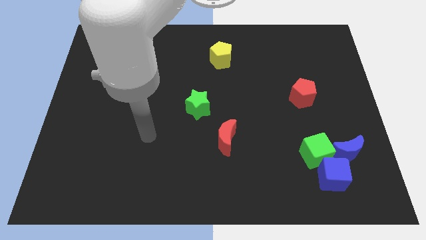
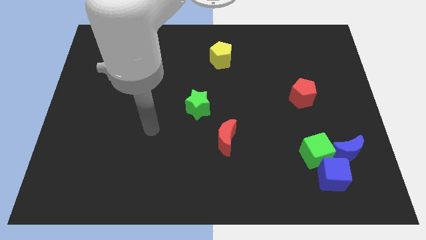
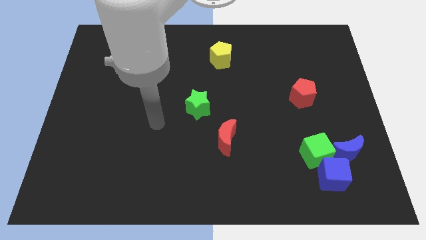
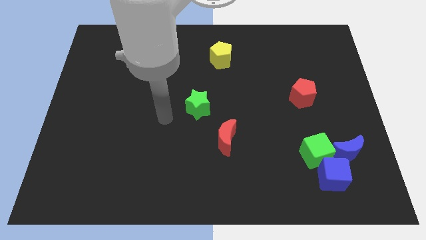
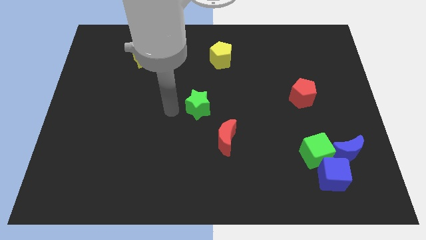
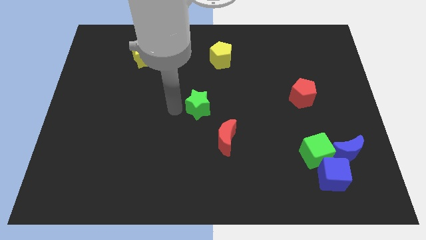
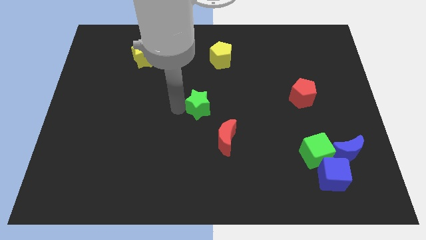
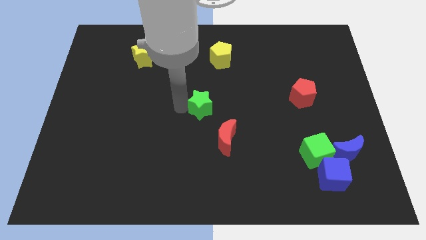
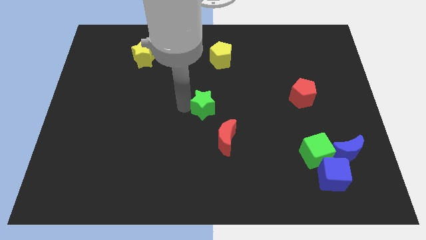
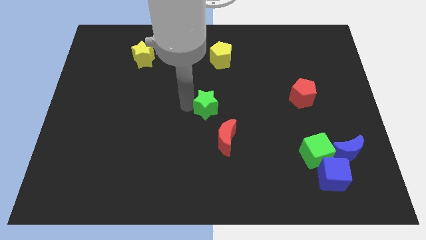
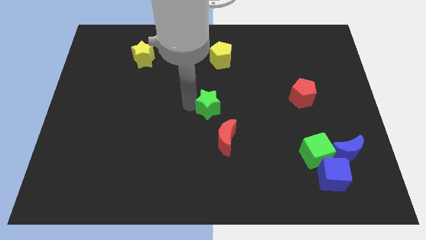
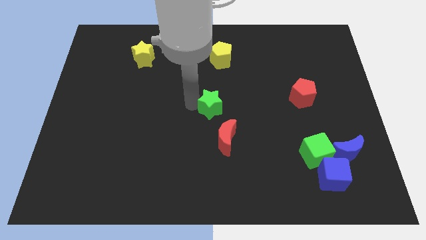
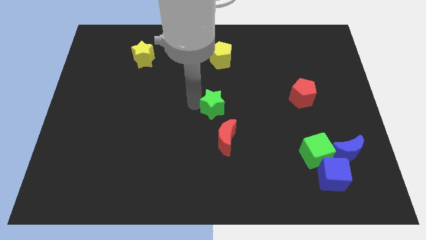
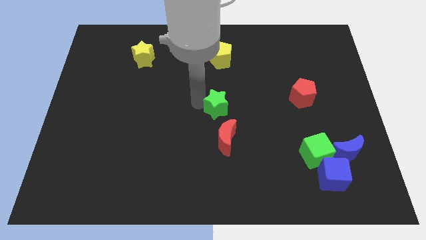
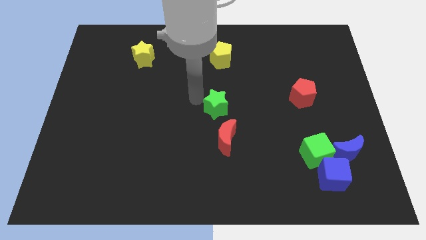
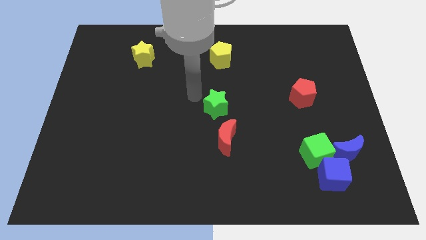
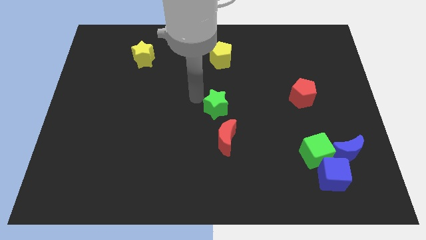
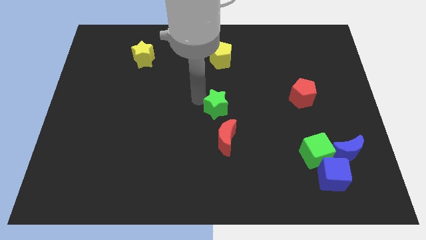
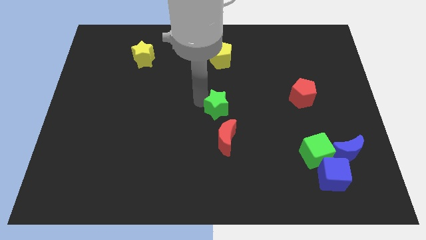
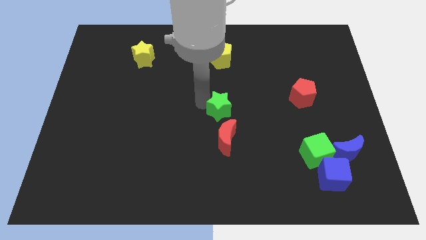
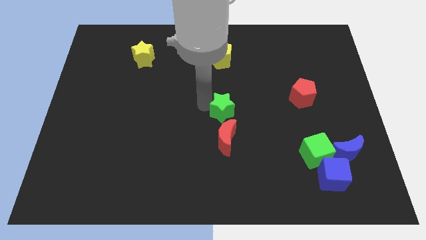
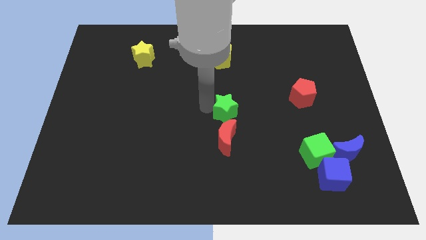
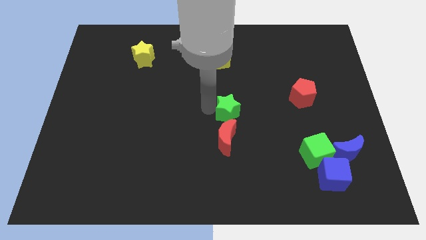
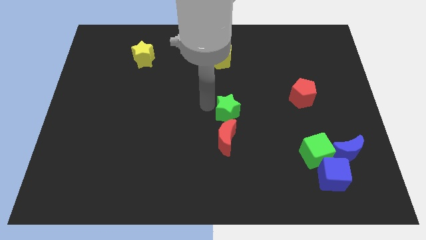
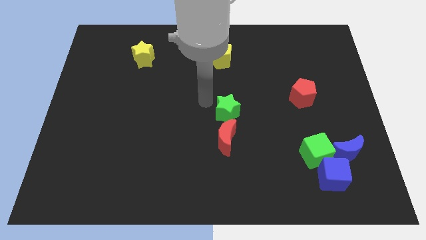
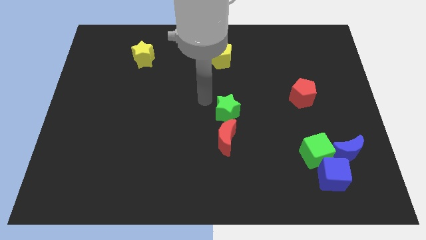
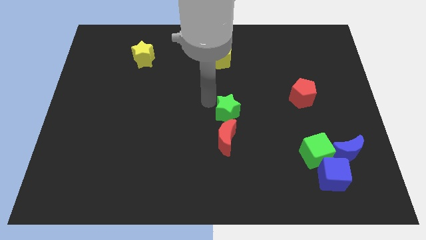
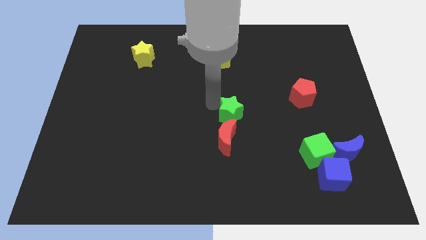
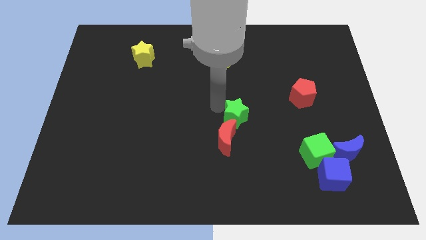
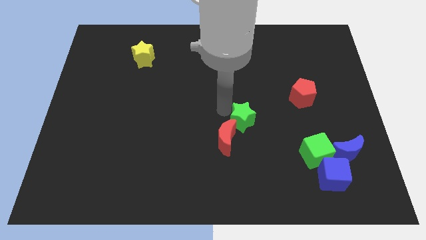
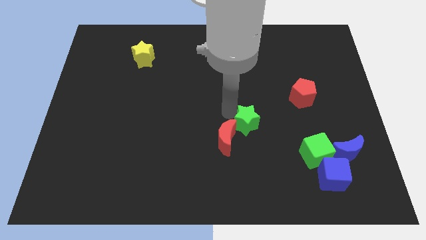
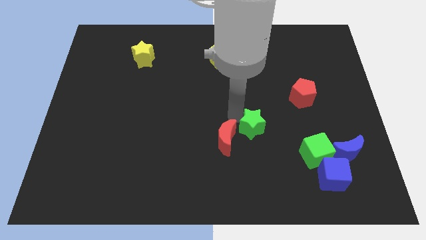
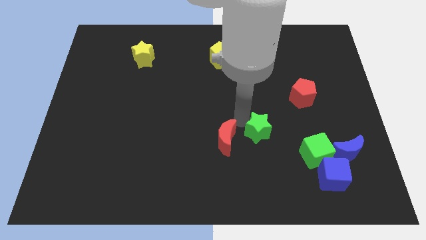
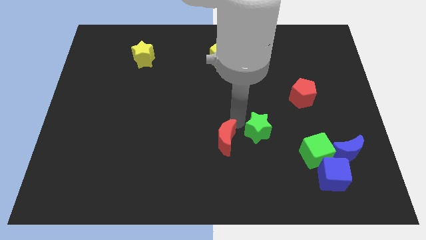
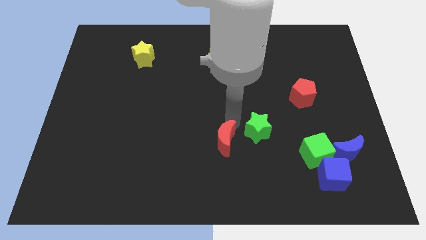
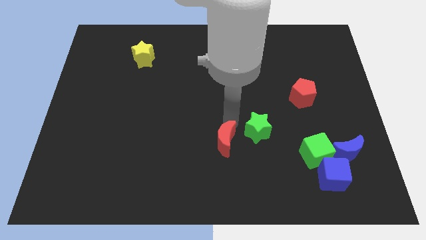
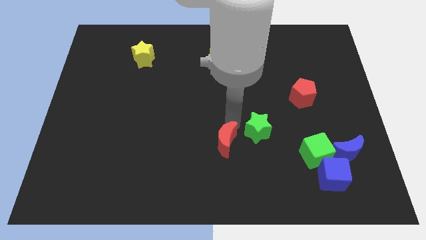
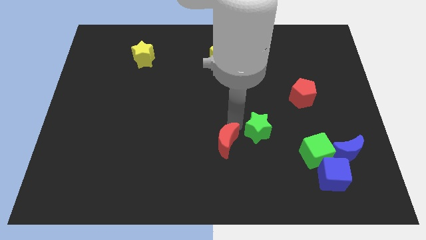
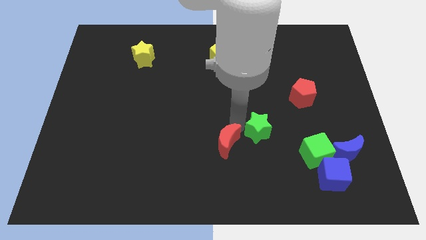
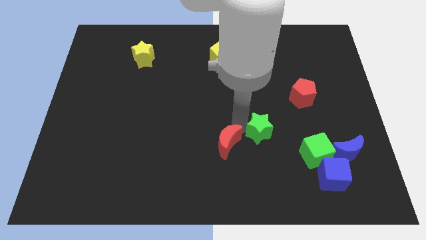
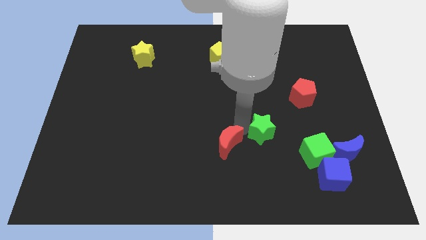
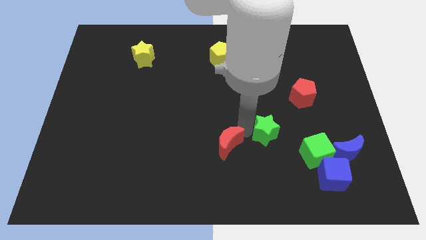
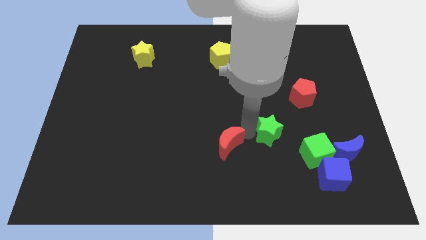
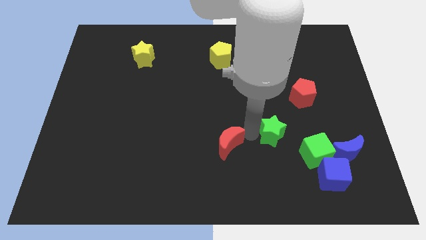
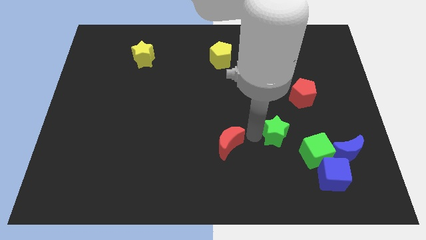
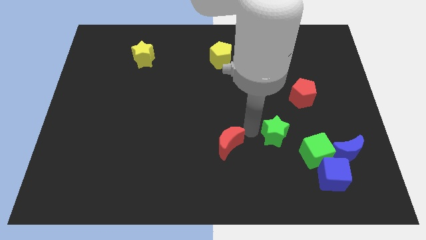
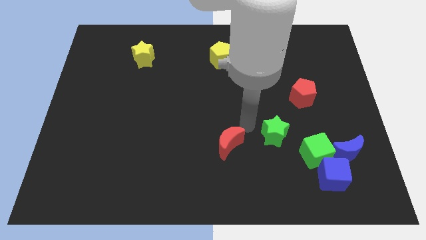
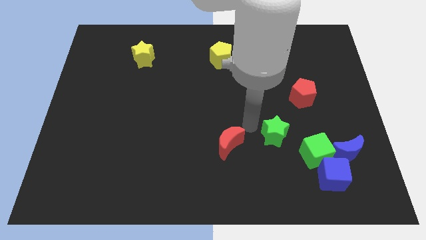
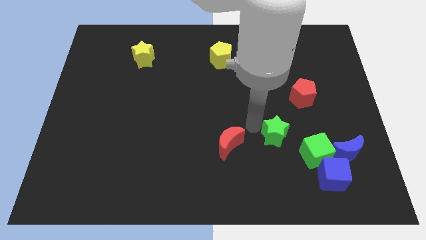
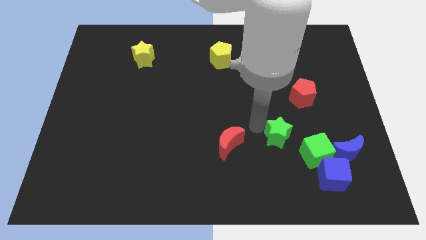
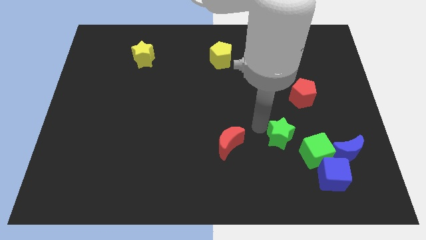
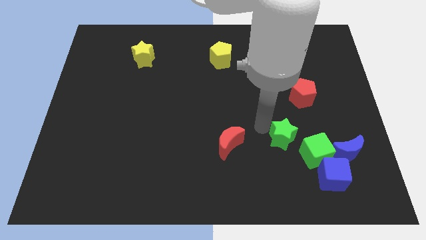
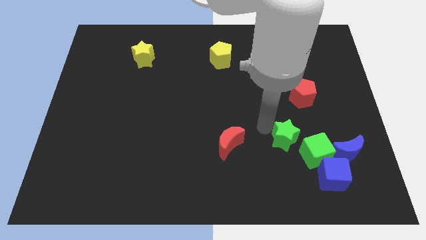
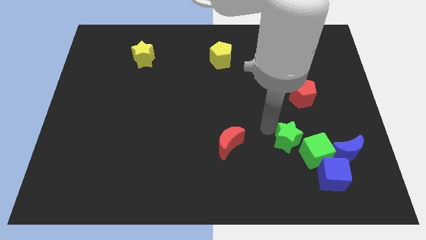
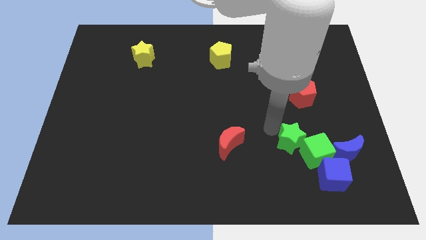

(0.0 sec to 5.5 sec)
put the green star close to the green cube

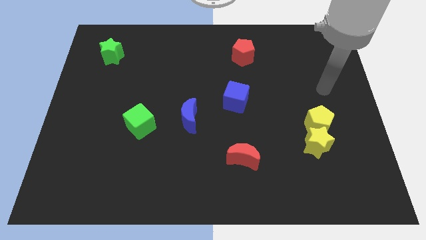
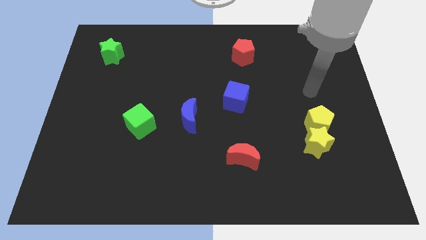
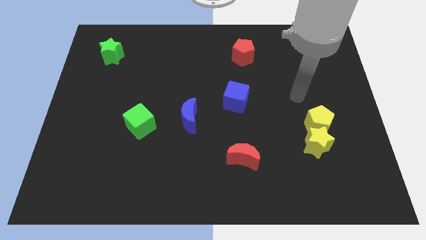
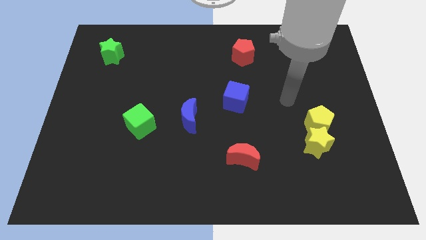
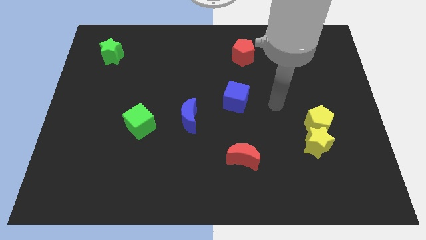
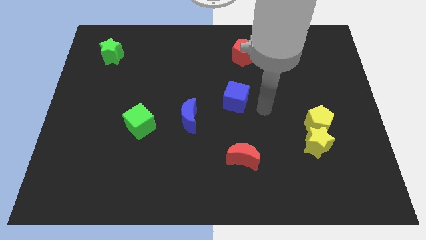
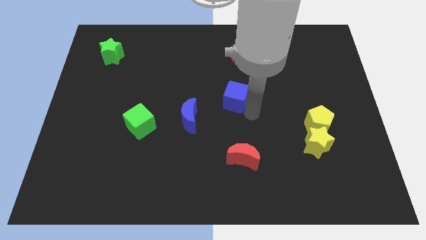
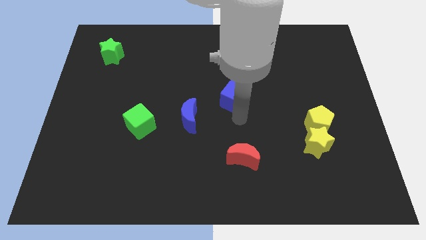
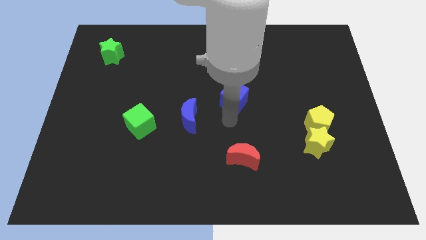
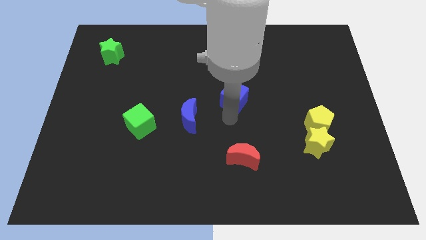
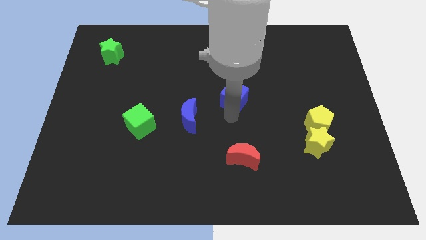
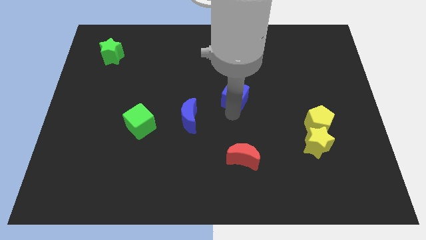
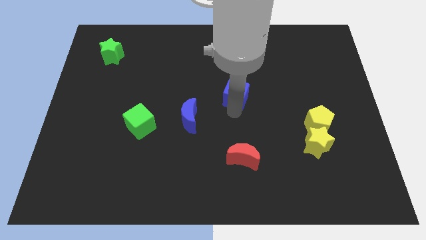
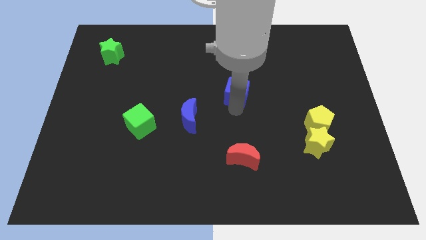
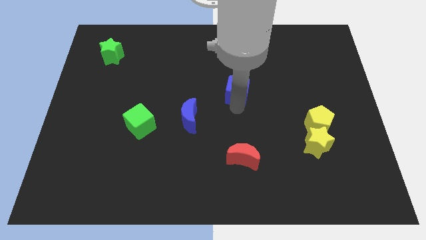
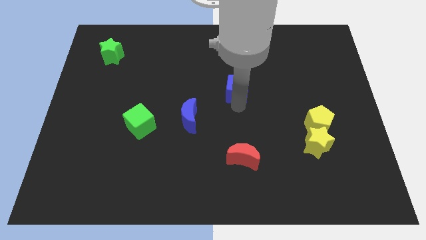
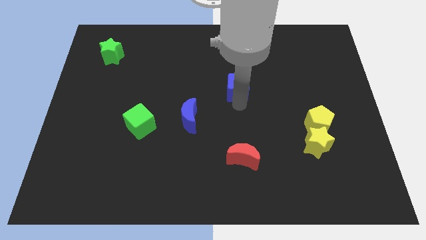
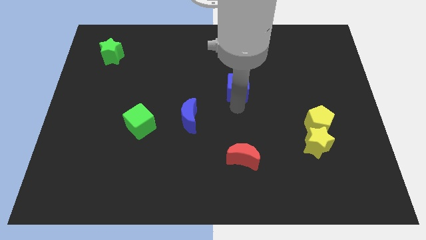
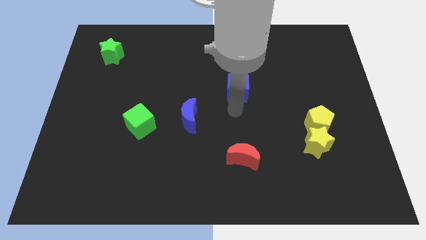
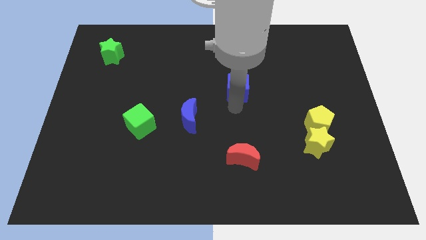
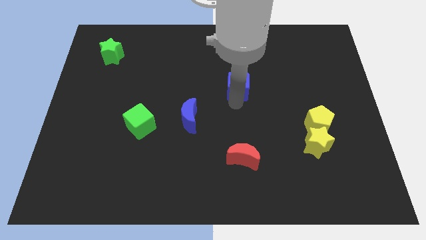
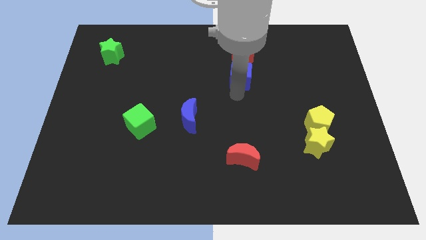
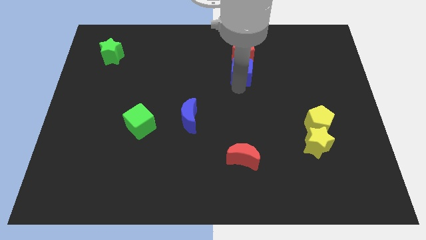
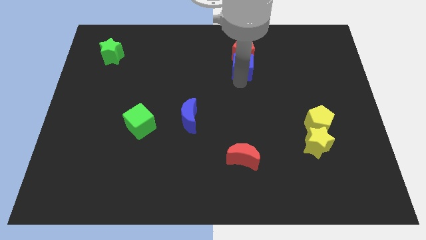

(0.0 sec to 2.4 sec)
push the blue cube next to the red pentagon
